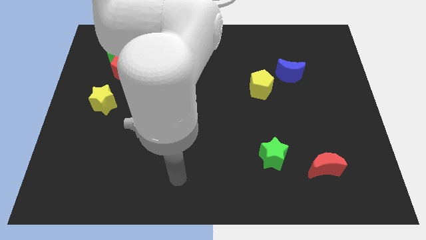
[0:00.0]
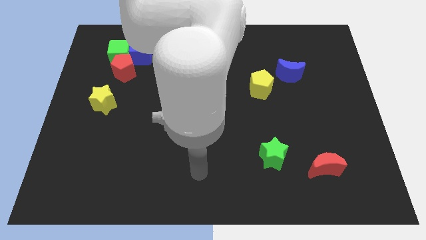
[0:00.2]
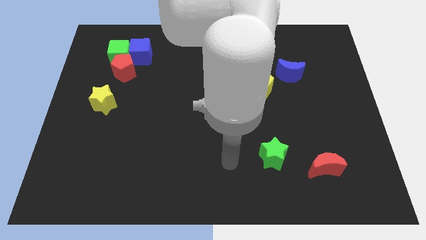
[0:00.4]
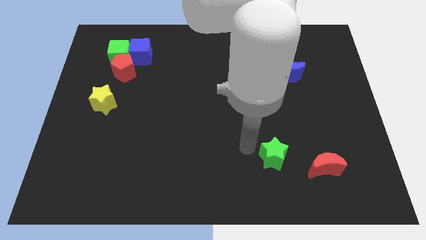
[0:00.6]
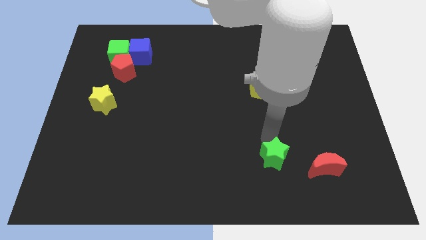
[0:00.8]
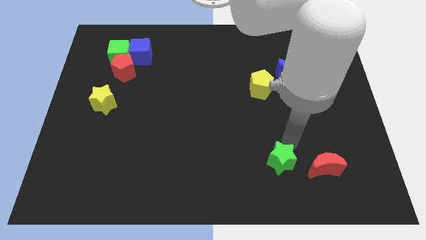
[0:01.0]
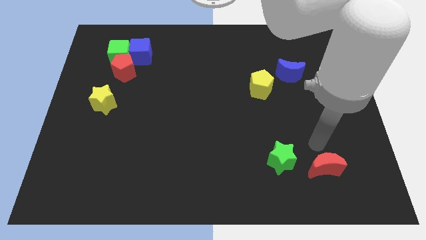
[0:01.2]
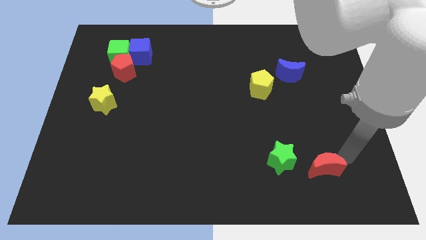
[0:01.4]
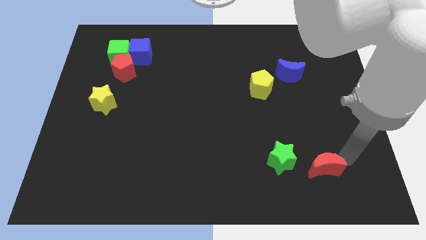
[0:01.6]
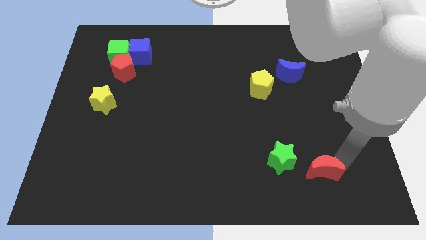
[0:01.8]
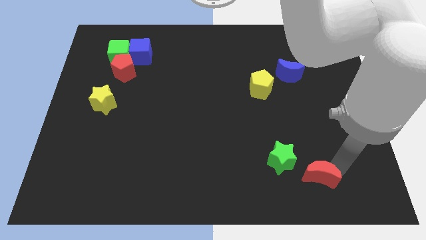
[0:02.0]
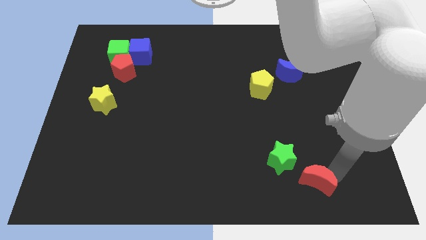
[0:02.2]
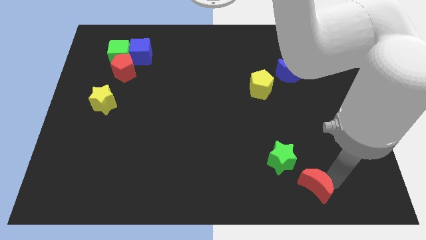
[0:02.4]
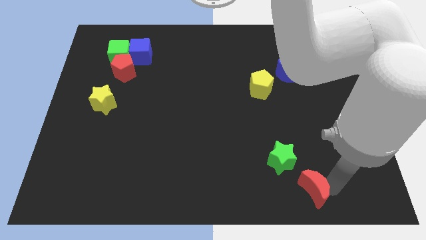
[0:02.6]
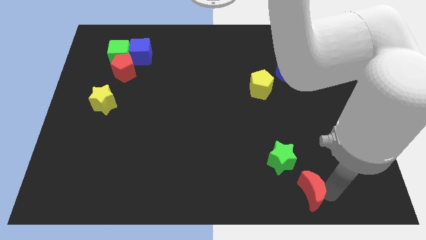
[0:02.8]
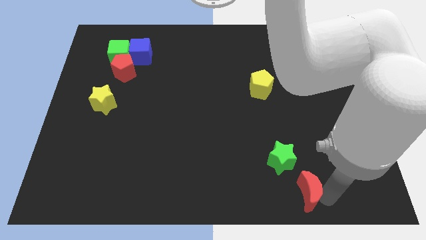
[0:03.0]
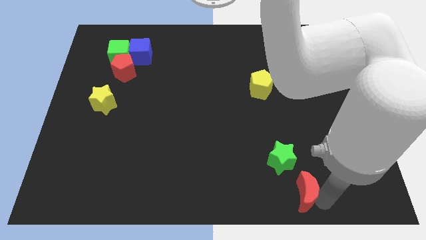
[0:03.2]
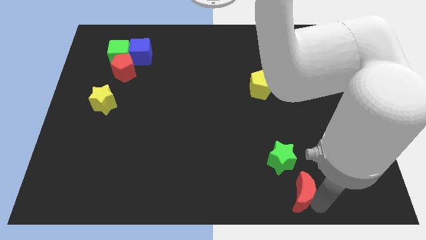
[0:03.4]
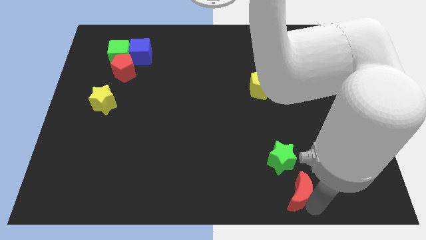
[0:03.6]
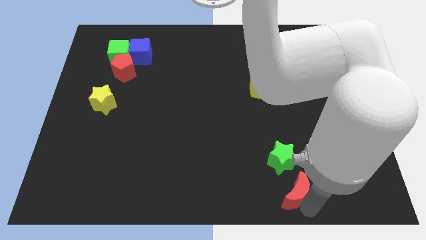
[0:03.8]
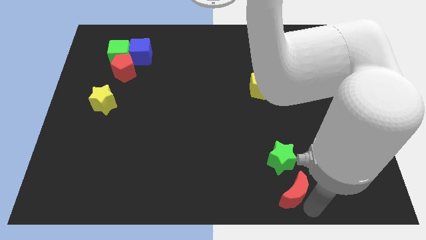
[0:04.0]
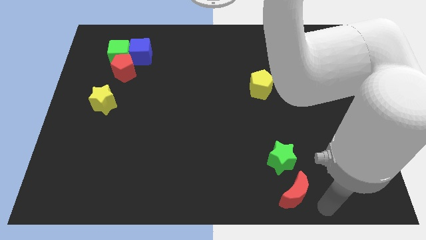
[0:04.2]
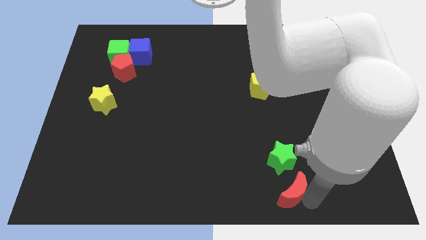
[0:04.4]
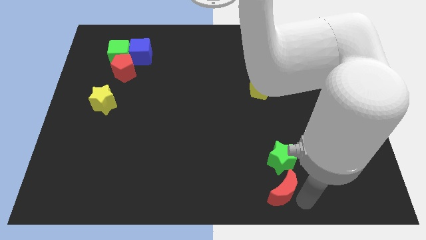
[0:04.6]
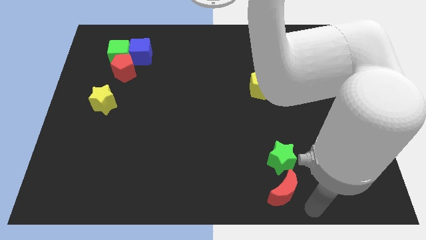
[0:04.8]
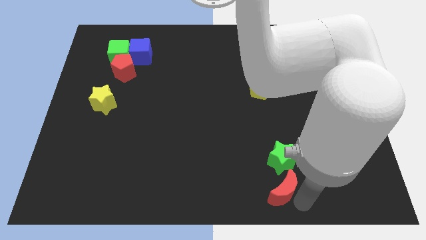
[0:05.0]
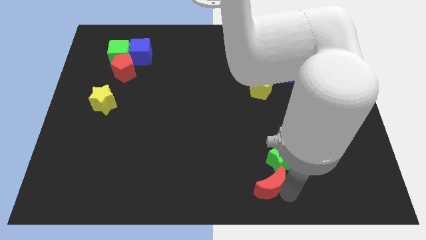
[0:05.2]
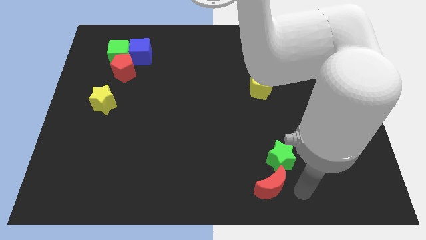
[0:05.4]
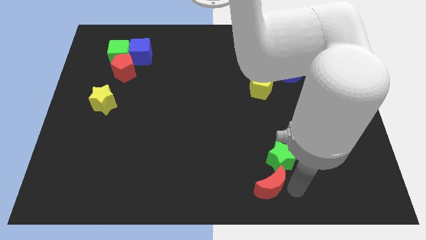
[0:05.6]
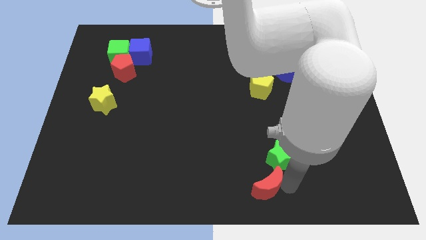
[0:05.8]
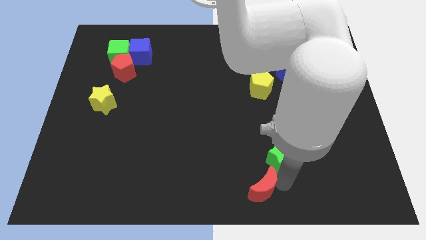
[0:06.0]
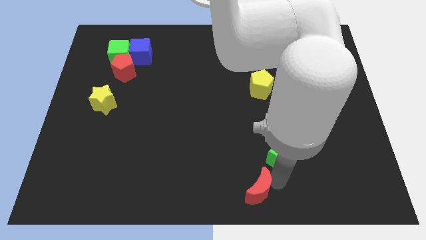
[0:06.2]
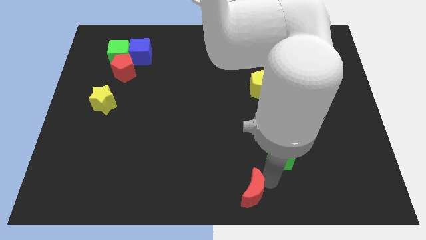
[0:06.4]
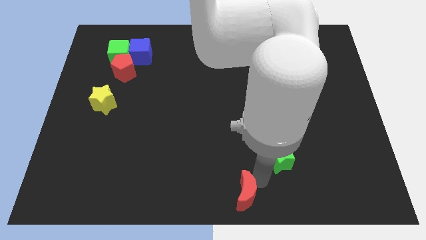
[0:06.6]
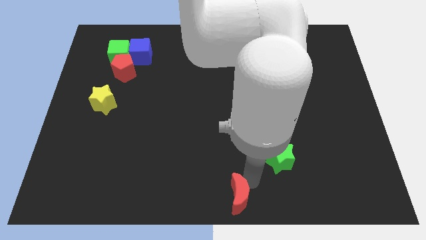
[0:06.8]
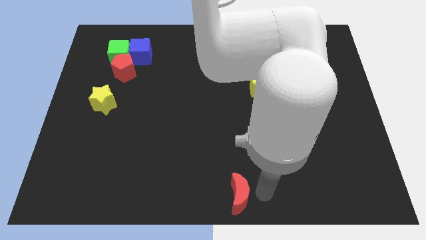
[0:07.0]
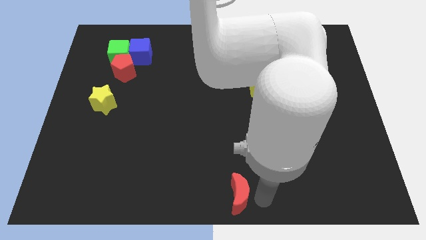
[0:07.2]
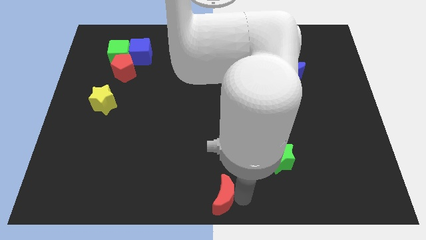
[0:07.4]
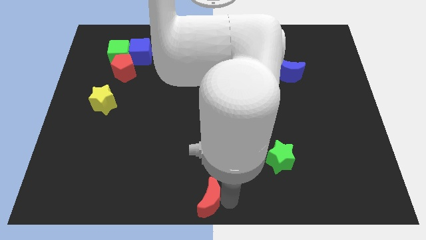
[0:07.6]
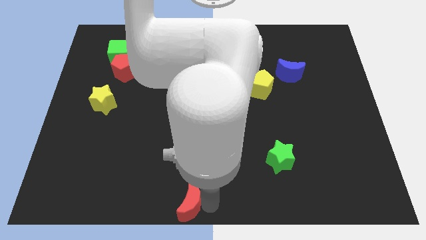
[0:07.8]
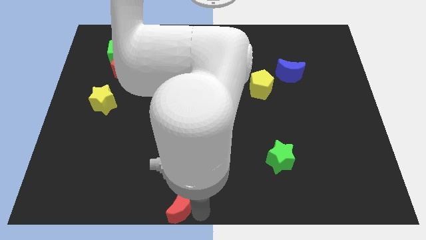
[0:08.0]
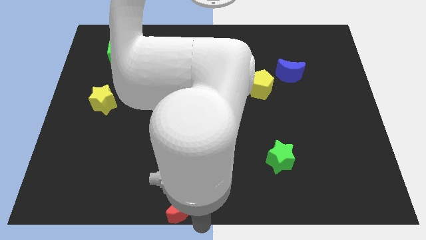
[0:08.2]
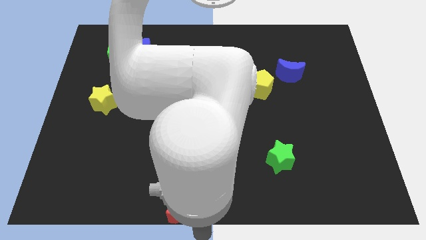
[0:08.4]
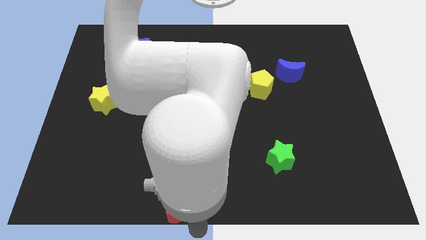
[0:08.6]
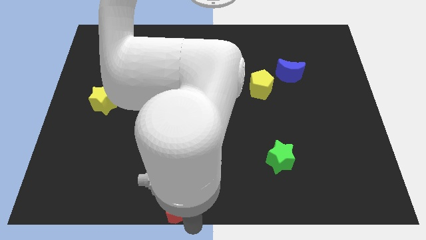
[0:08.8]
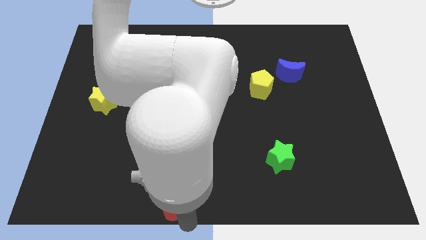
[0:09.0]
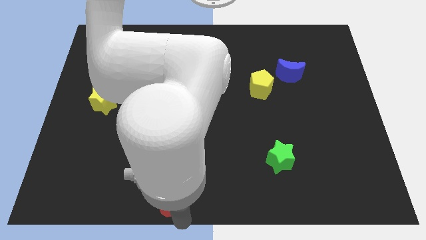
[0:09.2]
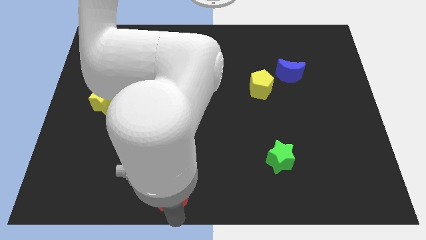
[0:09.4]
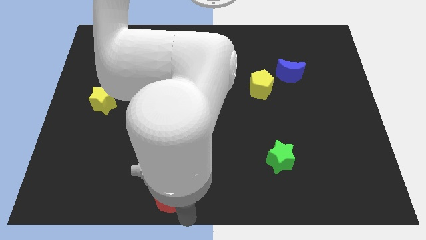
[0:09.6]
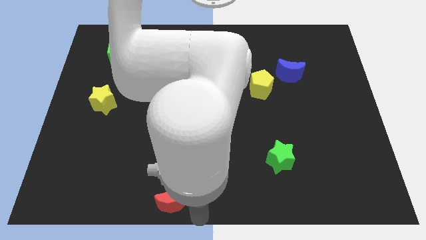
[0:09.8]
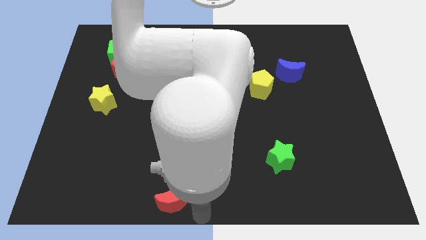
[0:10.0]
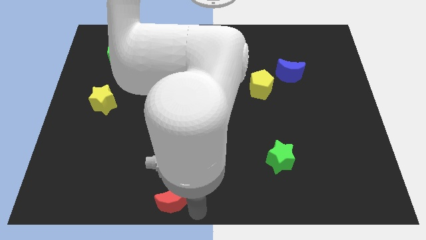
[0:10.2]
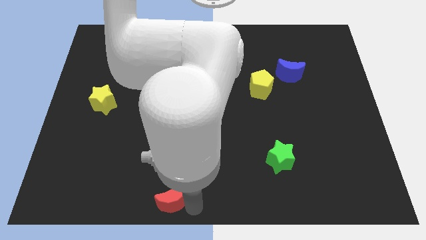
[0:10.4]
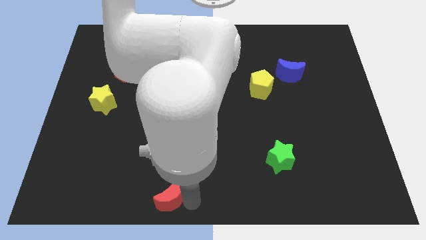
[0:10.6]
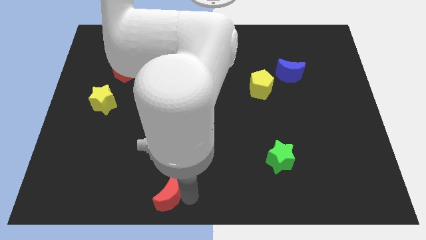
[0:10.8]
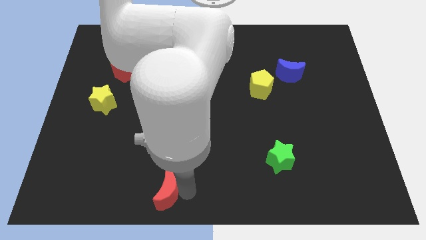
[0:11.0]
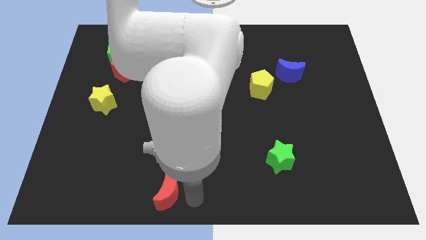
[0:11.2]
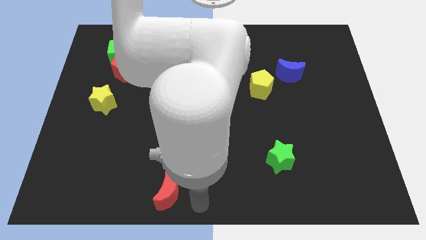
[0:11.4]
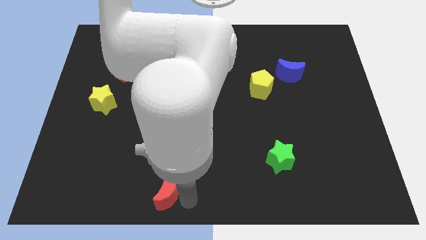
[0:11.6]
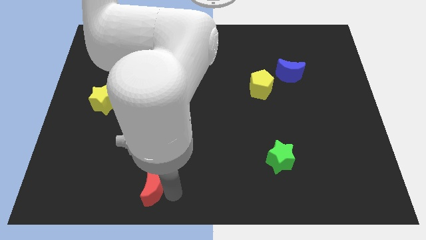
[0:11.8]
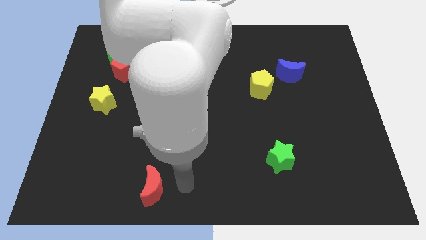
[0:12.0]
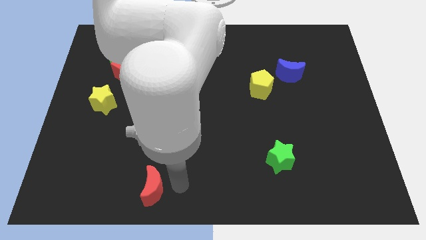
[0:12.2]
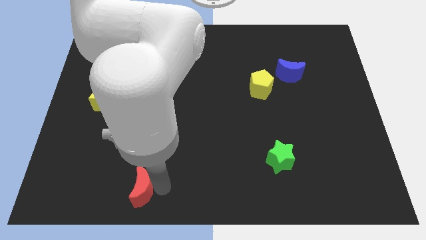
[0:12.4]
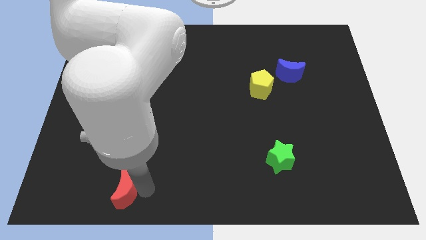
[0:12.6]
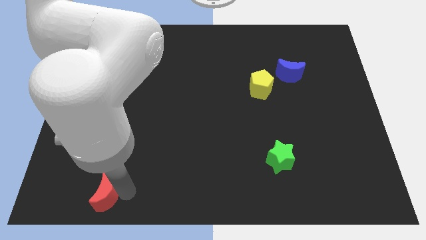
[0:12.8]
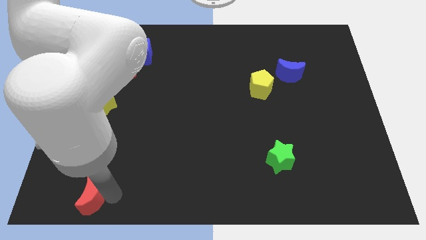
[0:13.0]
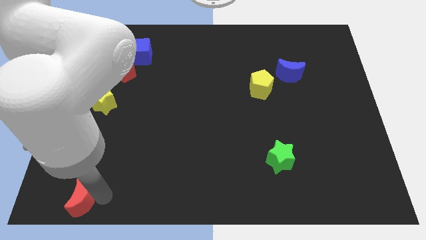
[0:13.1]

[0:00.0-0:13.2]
slide the red moon to the lower left corner

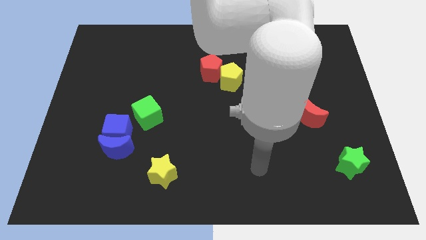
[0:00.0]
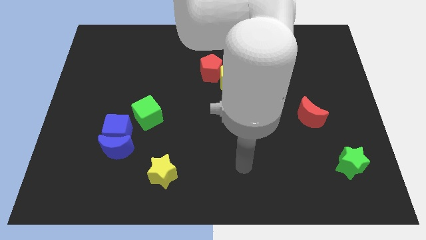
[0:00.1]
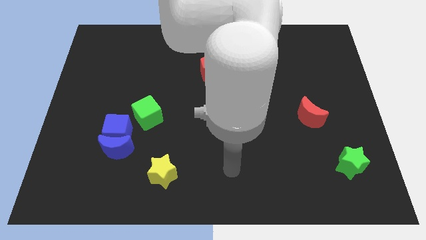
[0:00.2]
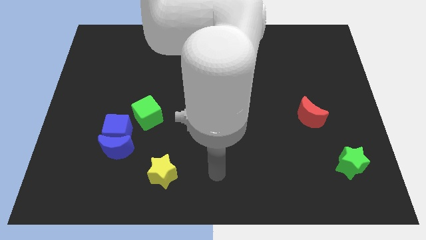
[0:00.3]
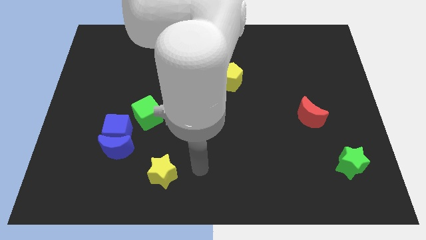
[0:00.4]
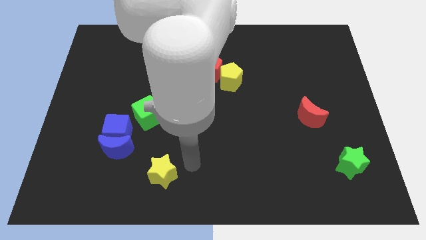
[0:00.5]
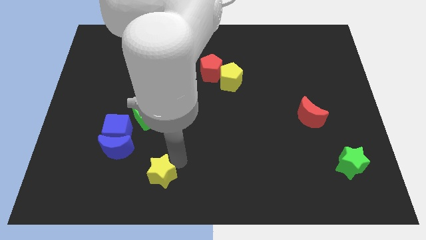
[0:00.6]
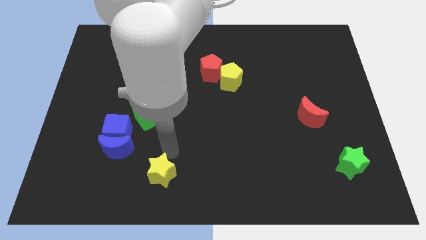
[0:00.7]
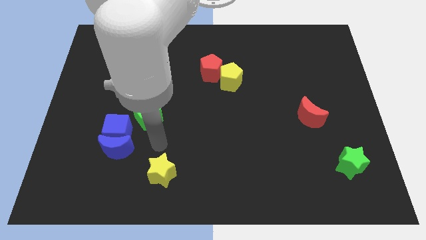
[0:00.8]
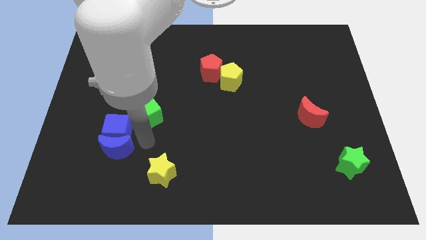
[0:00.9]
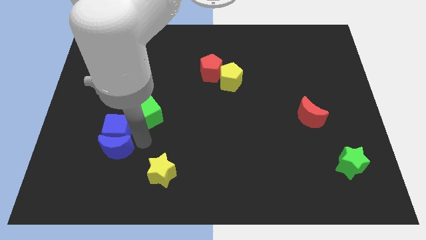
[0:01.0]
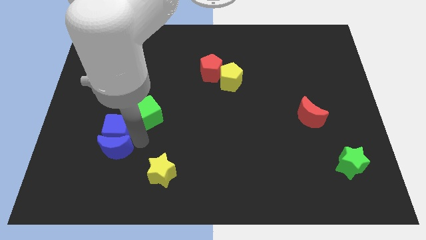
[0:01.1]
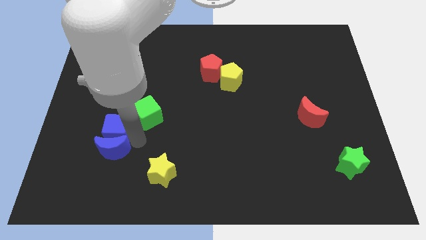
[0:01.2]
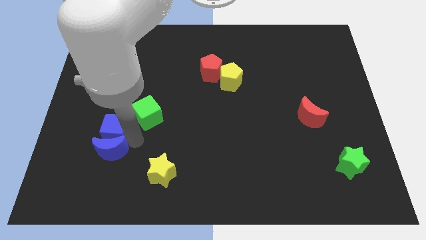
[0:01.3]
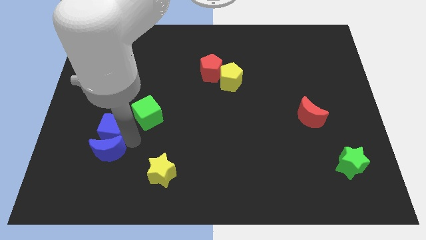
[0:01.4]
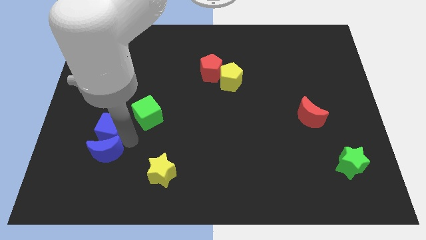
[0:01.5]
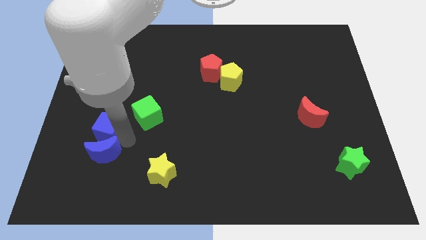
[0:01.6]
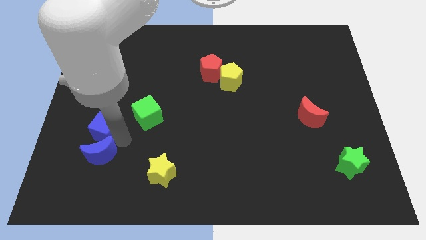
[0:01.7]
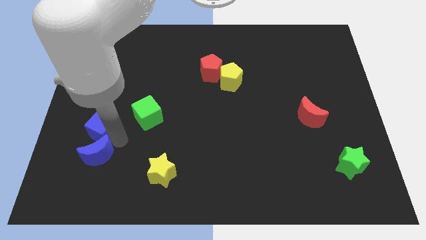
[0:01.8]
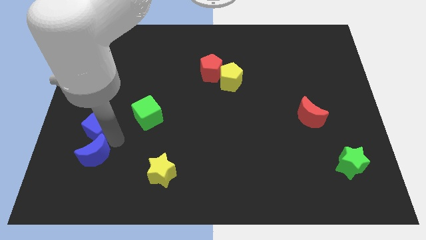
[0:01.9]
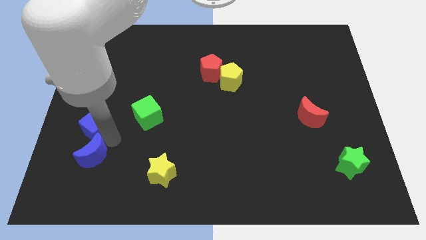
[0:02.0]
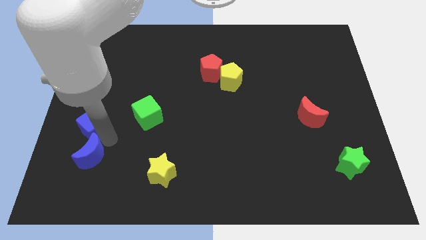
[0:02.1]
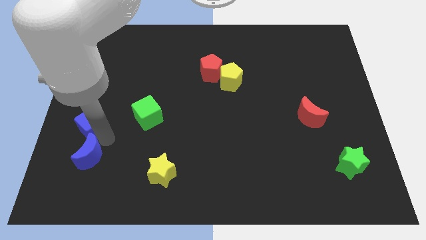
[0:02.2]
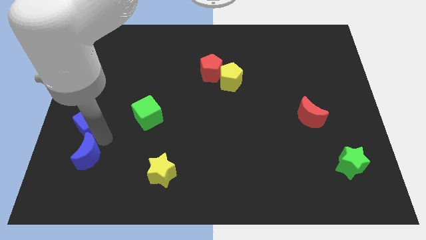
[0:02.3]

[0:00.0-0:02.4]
slide the blue cube to the left side of the board
